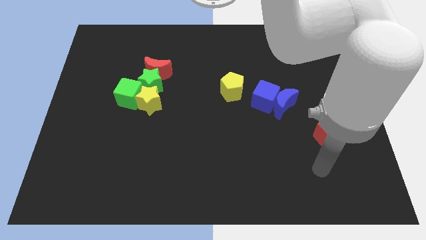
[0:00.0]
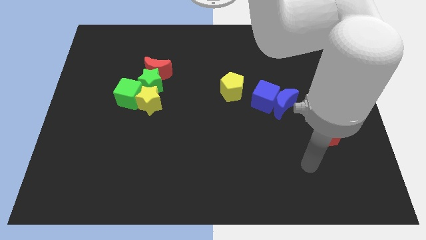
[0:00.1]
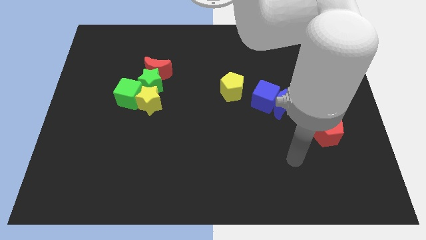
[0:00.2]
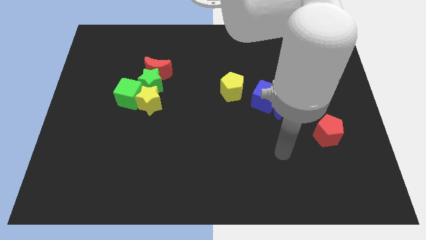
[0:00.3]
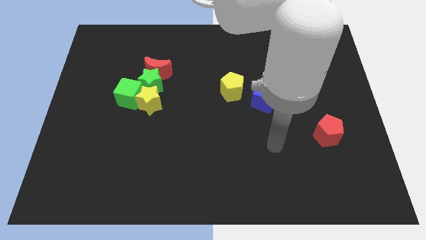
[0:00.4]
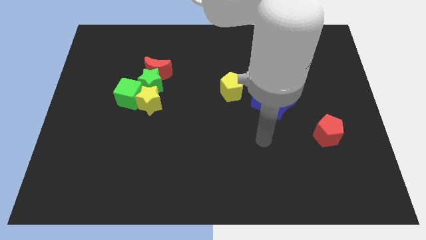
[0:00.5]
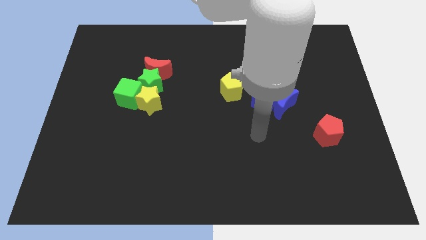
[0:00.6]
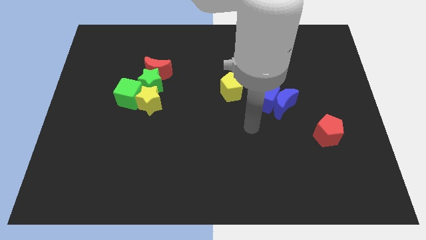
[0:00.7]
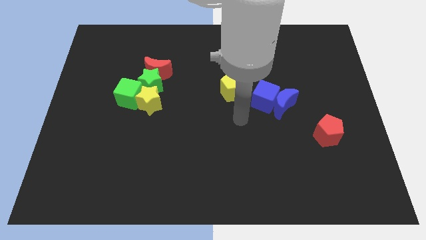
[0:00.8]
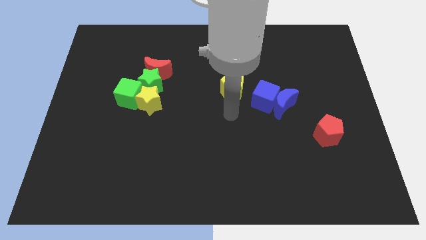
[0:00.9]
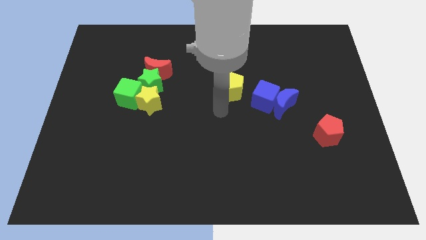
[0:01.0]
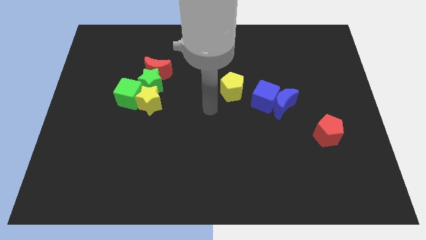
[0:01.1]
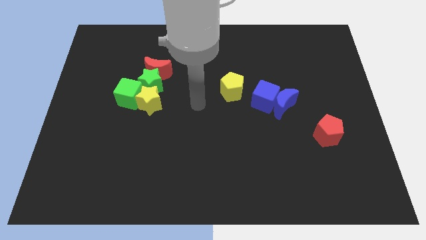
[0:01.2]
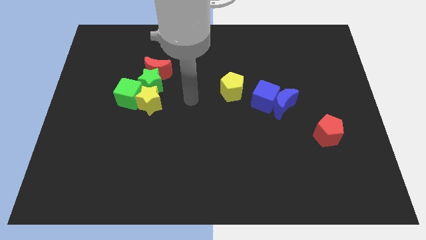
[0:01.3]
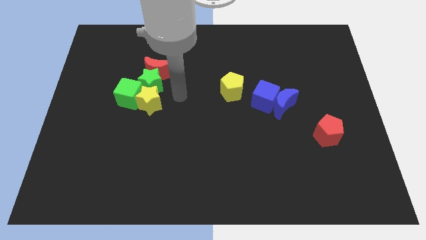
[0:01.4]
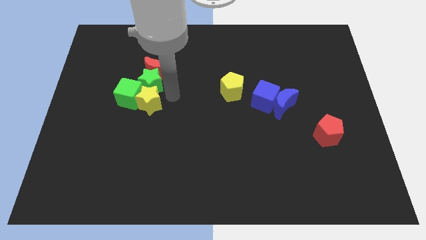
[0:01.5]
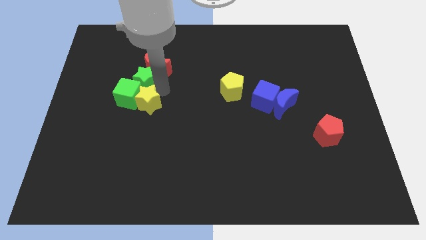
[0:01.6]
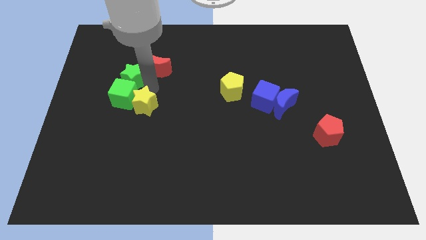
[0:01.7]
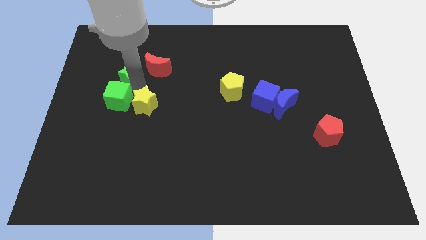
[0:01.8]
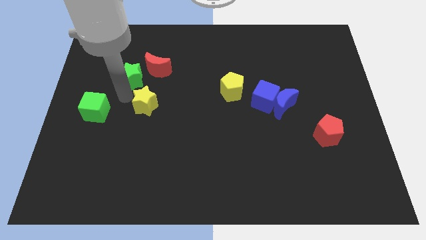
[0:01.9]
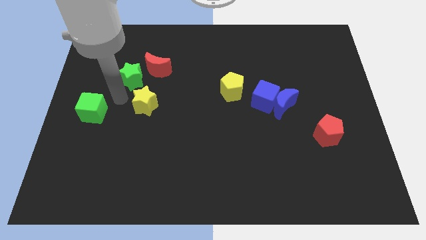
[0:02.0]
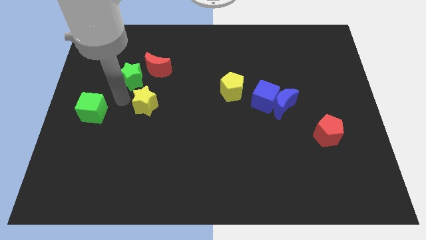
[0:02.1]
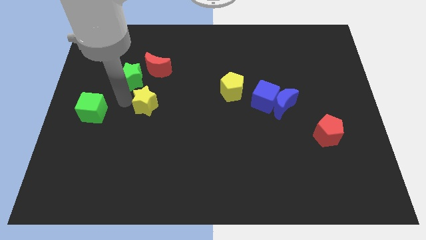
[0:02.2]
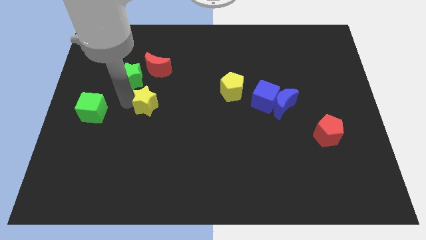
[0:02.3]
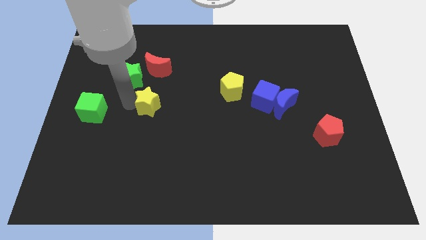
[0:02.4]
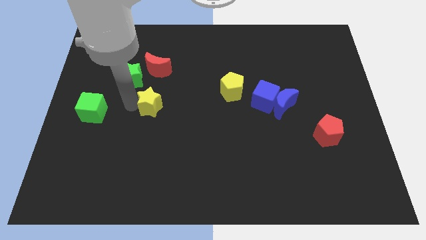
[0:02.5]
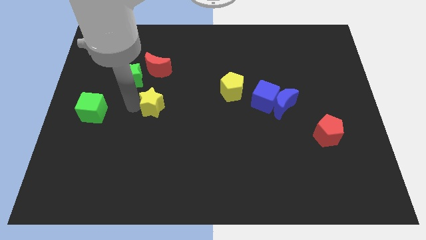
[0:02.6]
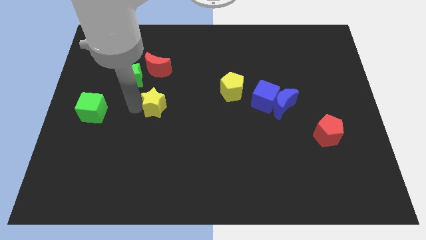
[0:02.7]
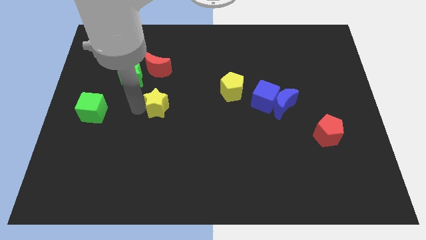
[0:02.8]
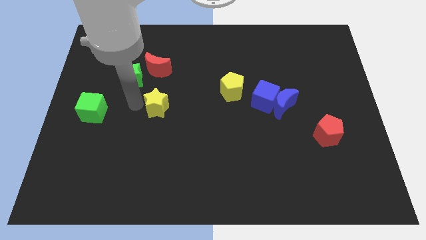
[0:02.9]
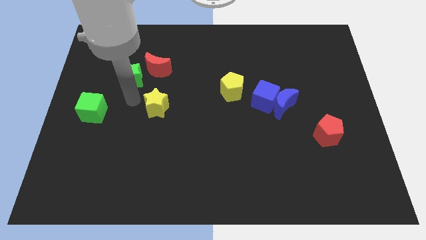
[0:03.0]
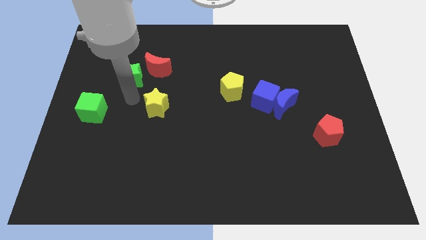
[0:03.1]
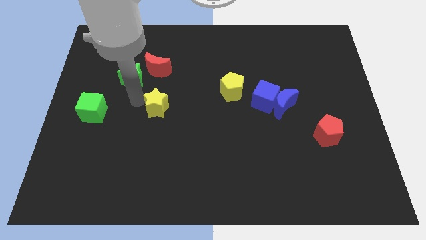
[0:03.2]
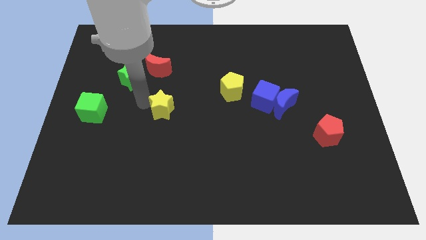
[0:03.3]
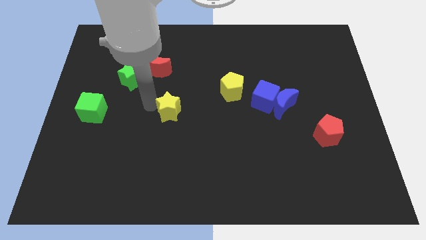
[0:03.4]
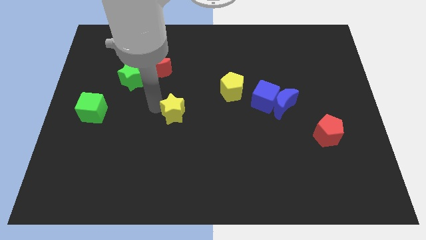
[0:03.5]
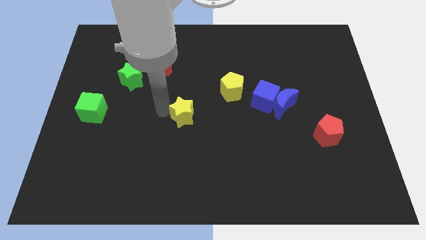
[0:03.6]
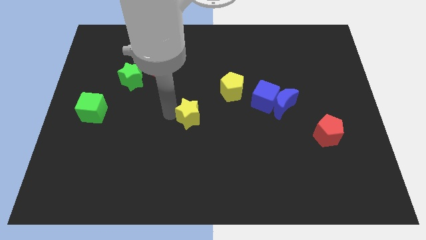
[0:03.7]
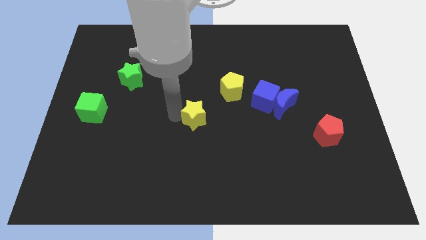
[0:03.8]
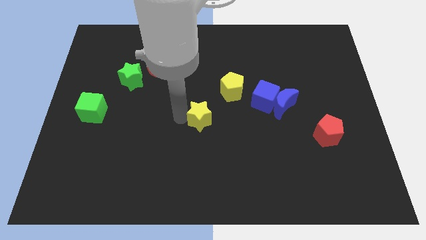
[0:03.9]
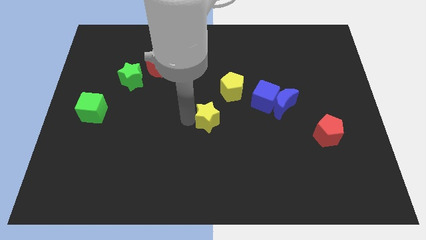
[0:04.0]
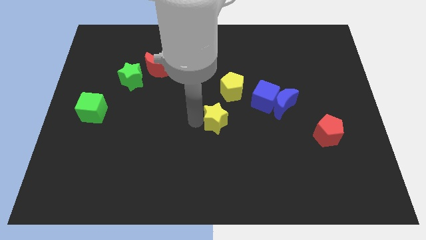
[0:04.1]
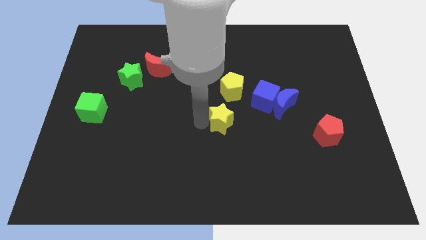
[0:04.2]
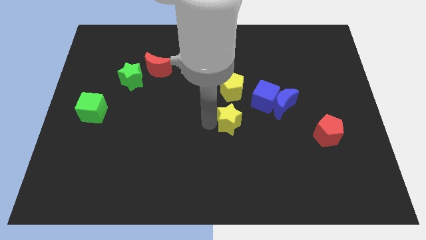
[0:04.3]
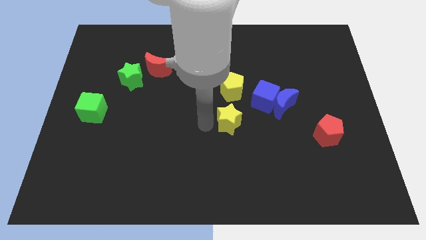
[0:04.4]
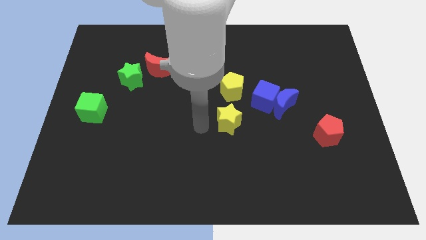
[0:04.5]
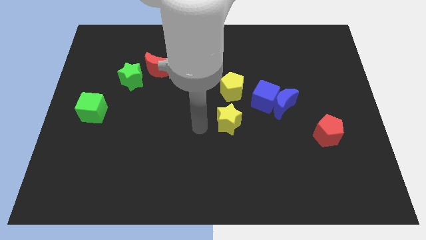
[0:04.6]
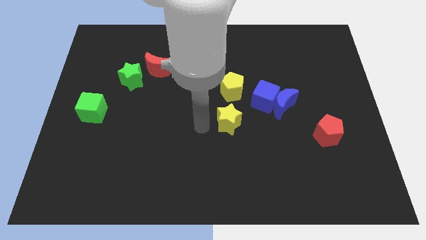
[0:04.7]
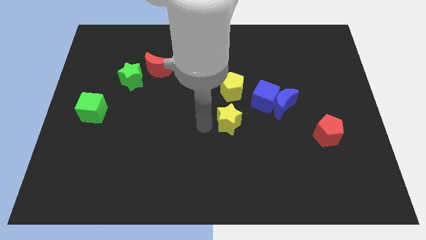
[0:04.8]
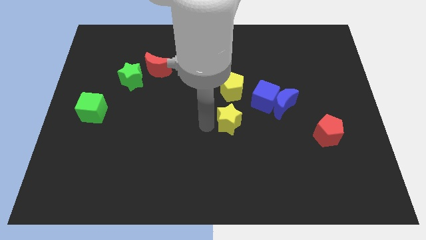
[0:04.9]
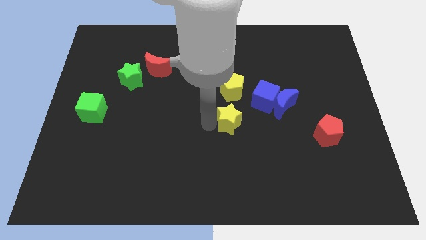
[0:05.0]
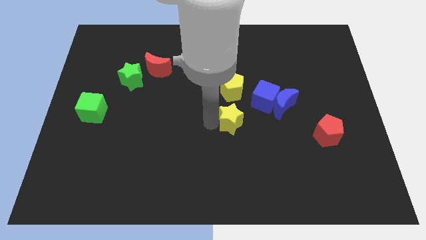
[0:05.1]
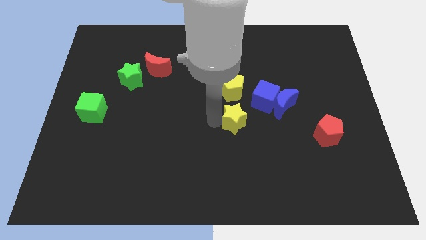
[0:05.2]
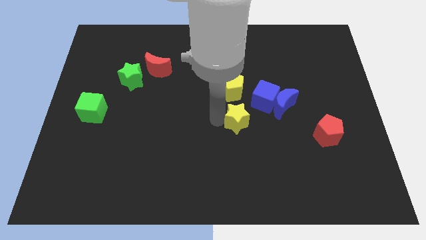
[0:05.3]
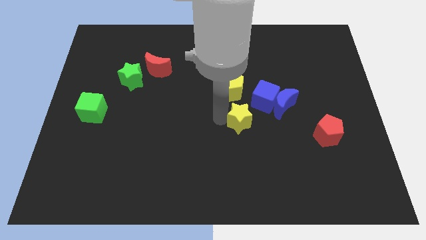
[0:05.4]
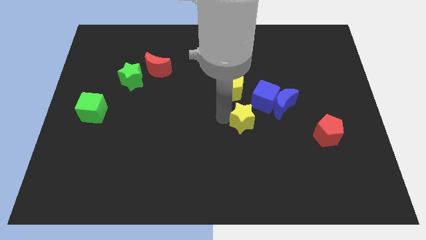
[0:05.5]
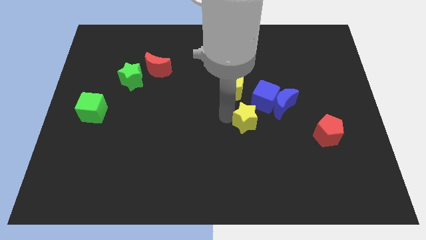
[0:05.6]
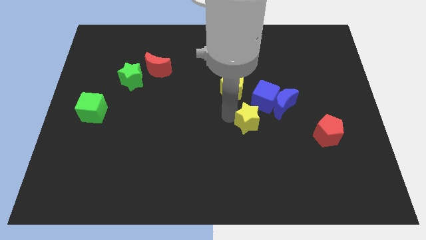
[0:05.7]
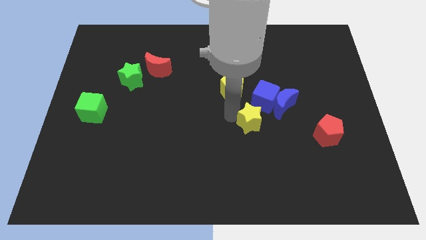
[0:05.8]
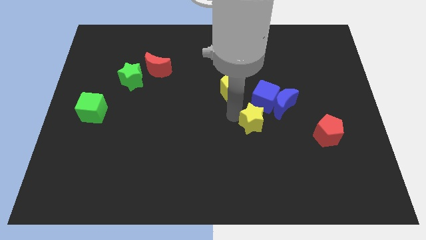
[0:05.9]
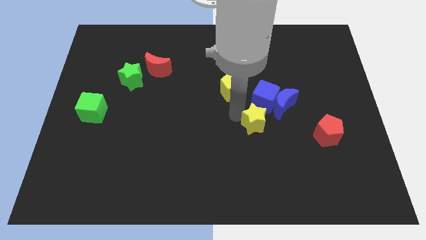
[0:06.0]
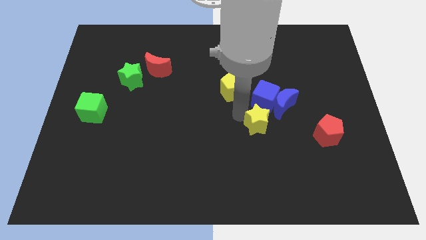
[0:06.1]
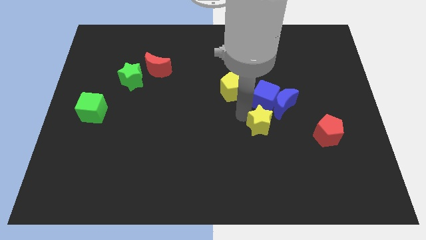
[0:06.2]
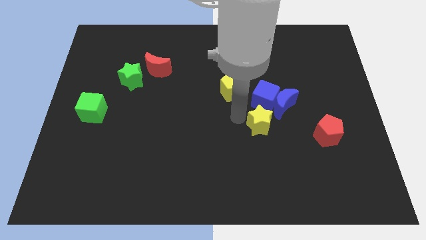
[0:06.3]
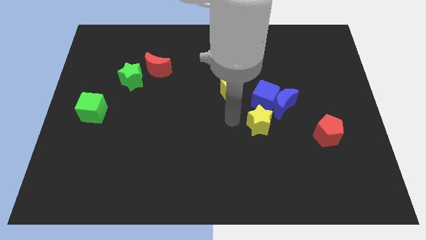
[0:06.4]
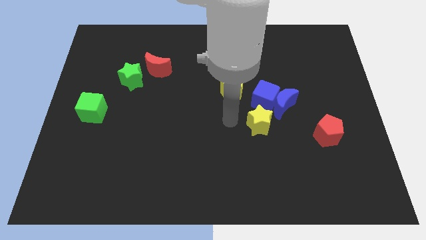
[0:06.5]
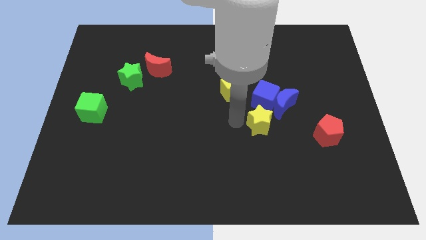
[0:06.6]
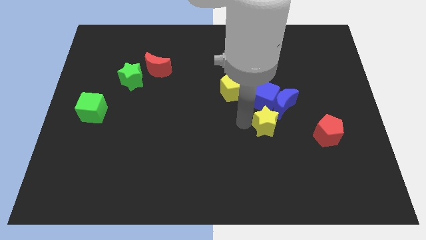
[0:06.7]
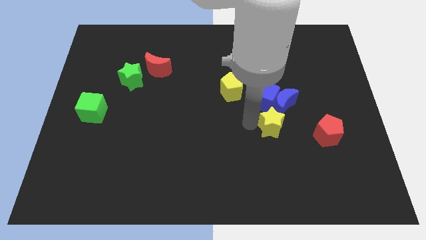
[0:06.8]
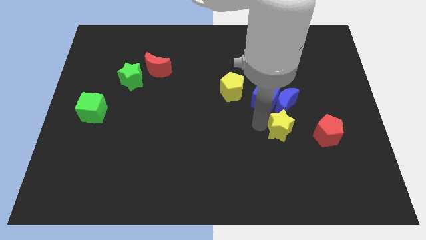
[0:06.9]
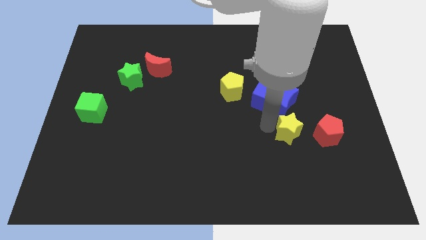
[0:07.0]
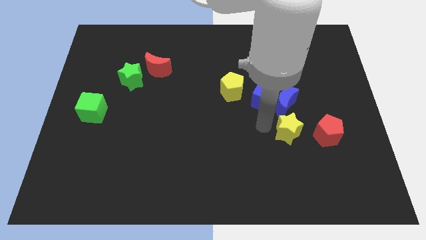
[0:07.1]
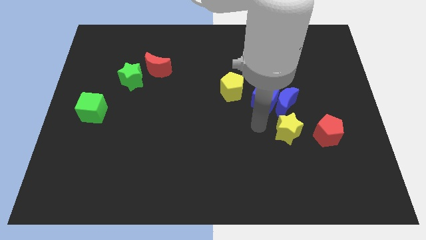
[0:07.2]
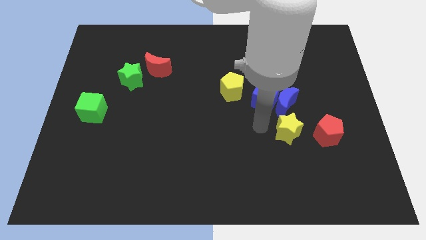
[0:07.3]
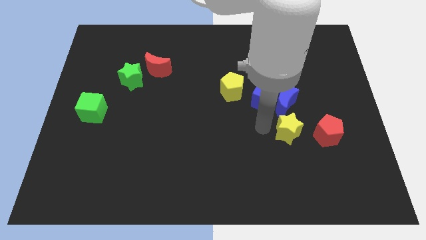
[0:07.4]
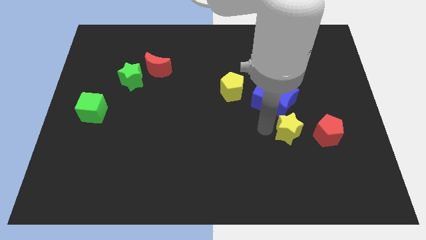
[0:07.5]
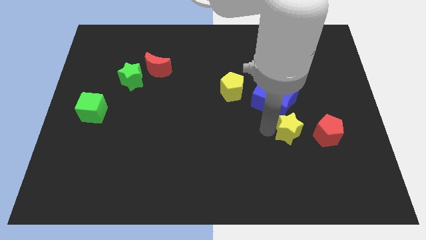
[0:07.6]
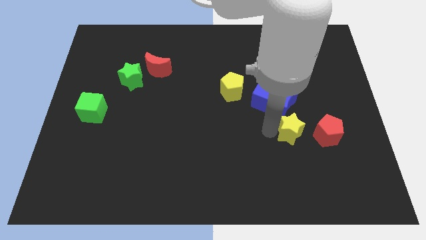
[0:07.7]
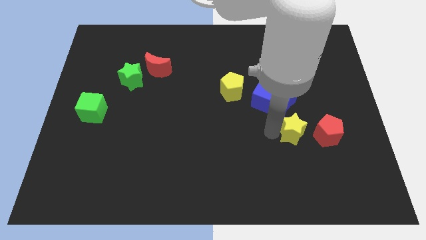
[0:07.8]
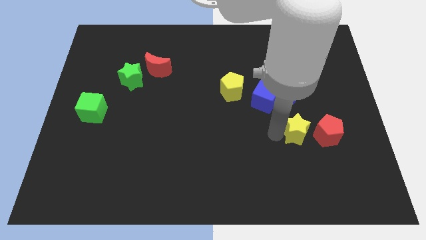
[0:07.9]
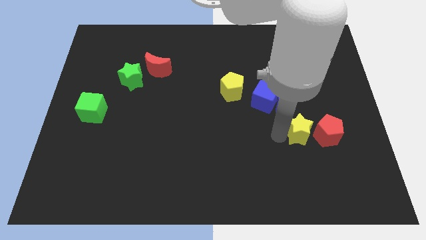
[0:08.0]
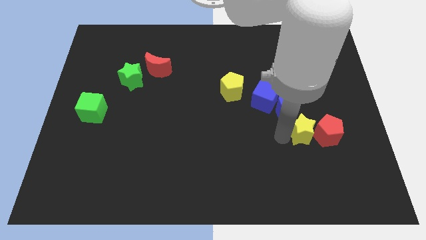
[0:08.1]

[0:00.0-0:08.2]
put the yellow star towards the red pentagon
